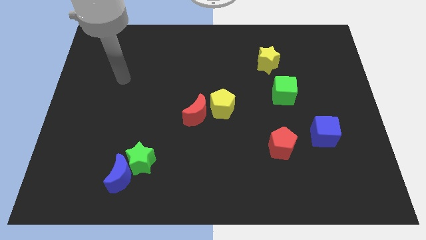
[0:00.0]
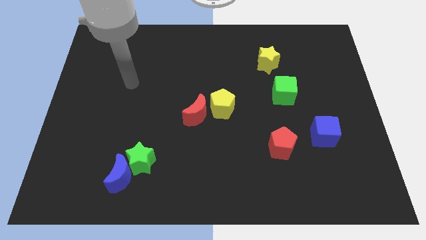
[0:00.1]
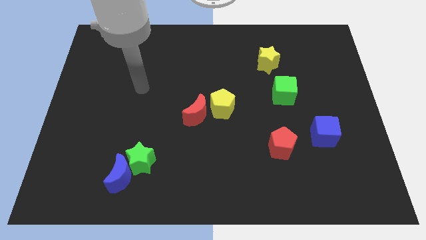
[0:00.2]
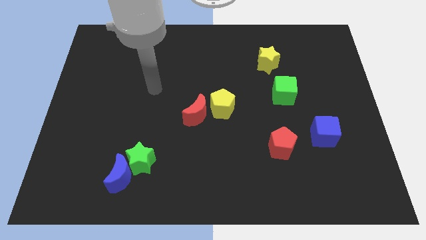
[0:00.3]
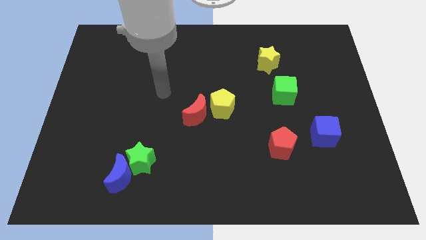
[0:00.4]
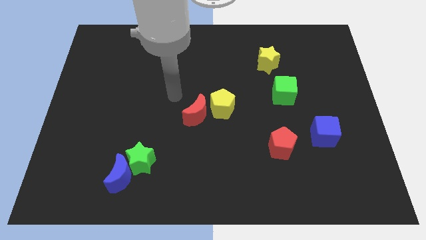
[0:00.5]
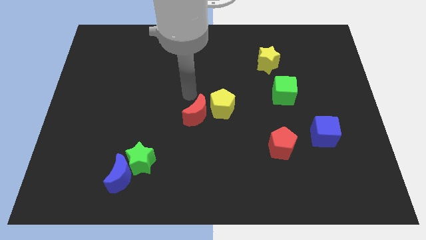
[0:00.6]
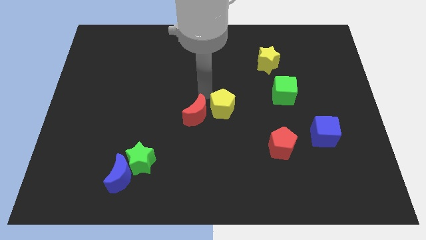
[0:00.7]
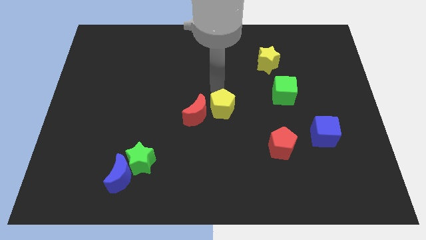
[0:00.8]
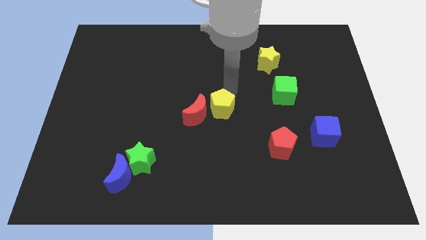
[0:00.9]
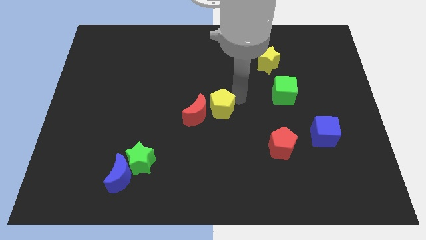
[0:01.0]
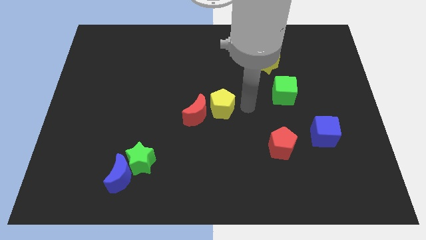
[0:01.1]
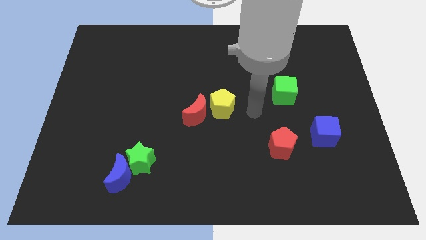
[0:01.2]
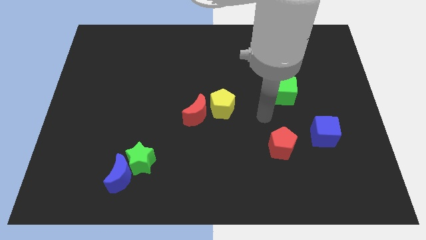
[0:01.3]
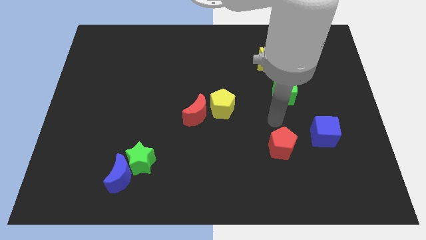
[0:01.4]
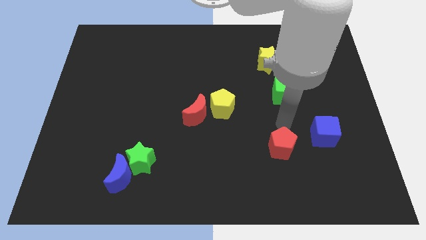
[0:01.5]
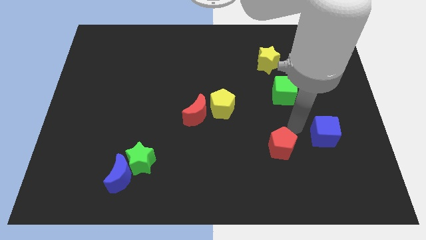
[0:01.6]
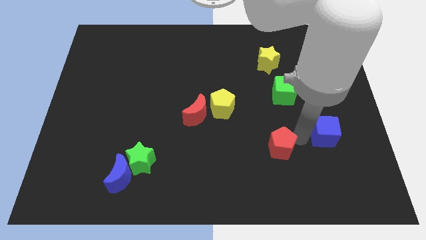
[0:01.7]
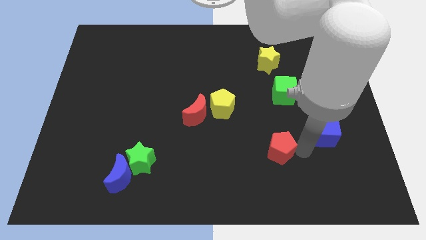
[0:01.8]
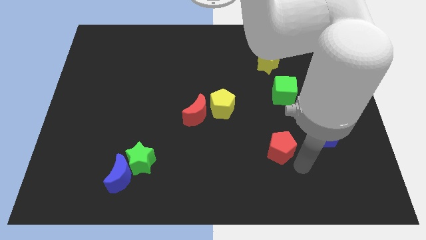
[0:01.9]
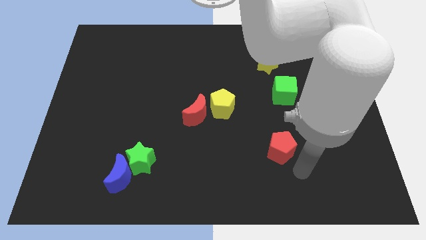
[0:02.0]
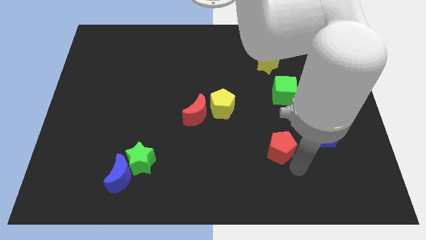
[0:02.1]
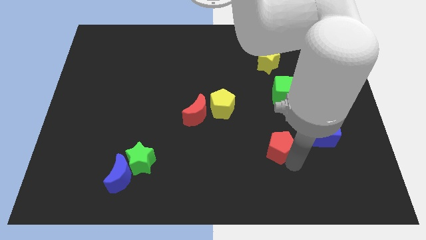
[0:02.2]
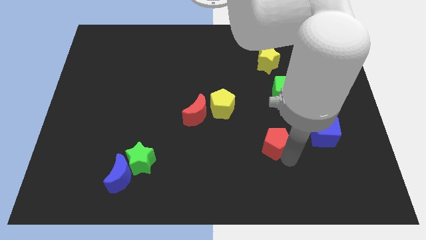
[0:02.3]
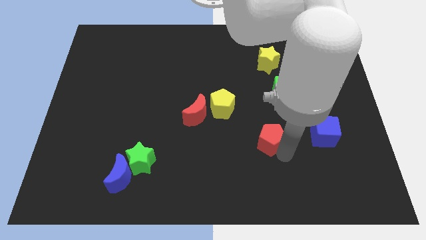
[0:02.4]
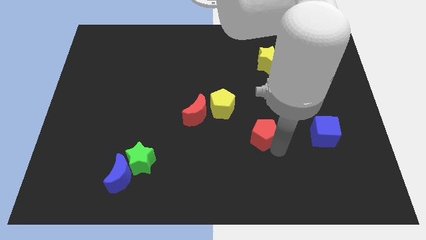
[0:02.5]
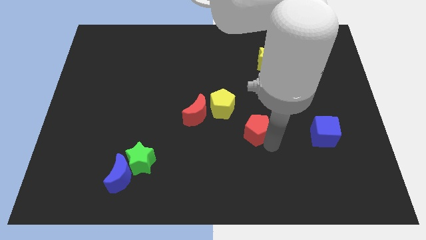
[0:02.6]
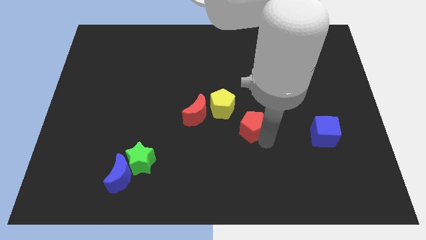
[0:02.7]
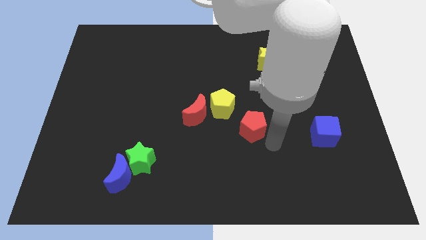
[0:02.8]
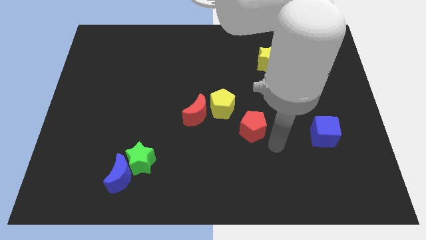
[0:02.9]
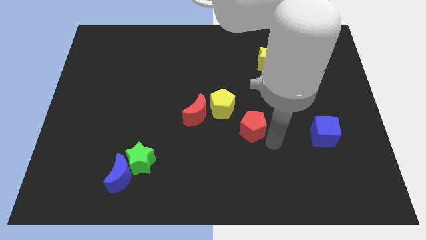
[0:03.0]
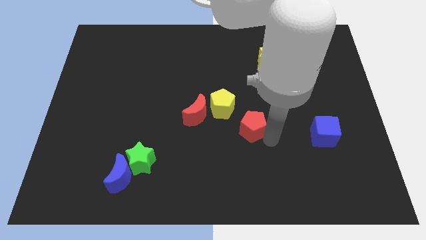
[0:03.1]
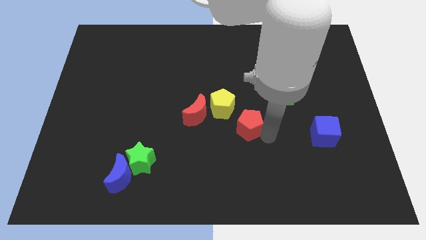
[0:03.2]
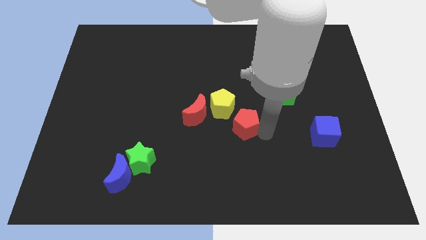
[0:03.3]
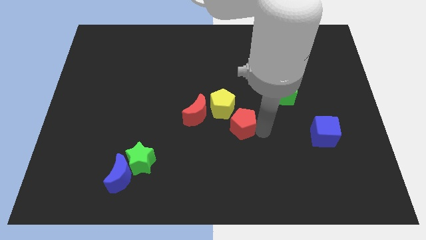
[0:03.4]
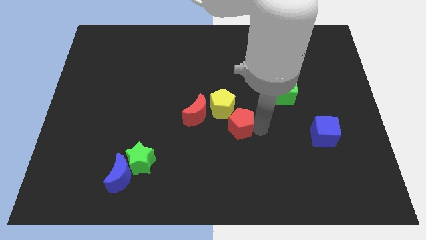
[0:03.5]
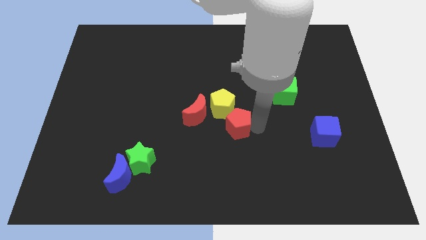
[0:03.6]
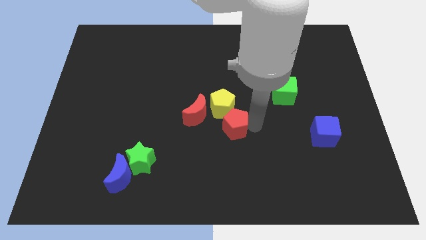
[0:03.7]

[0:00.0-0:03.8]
move the red pentagon close to the yellow pentagon

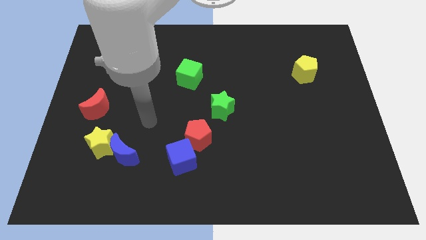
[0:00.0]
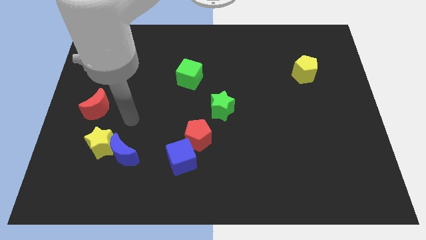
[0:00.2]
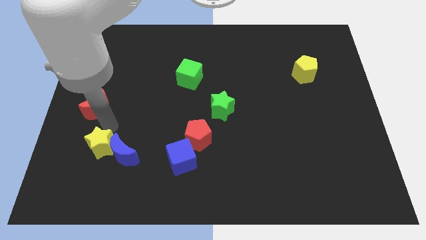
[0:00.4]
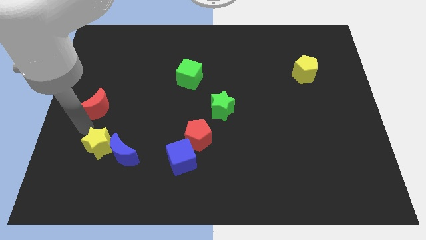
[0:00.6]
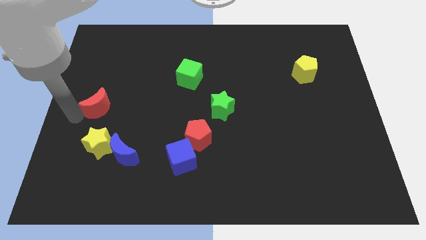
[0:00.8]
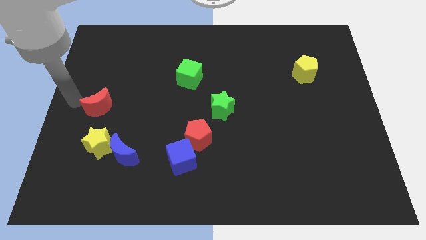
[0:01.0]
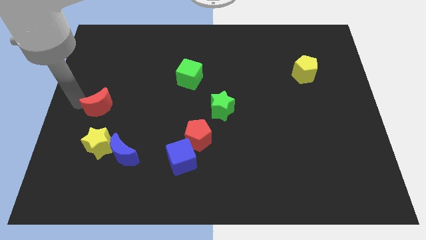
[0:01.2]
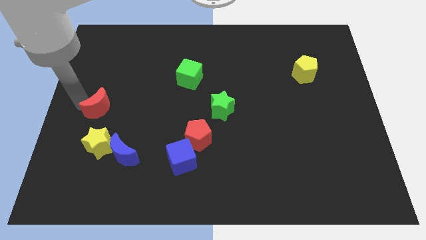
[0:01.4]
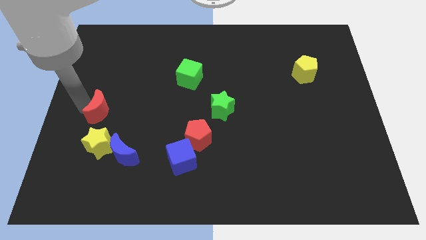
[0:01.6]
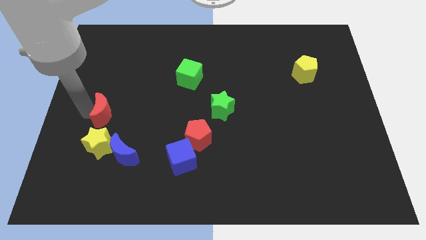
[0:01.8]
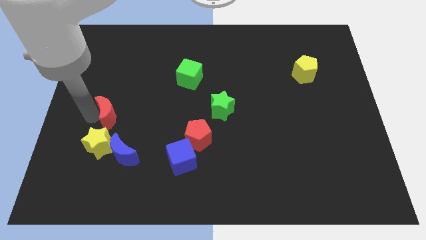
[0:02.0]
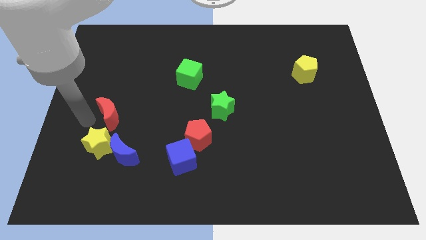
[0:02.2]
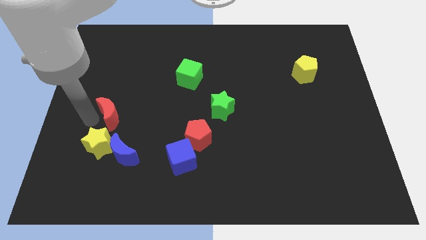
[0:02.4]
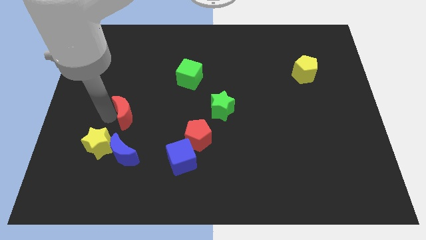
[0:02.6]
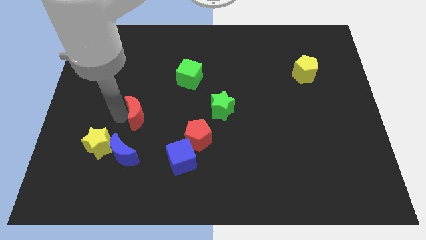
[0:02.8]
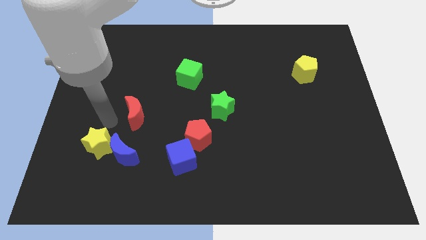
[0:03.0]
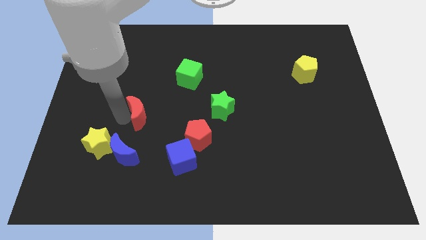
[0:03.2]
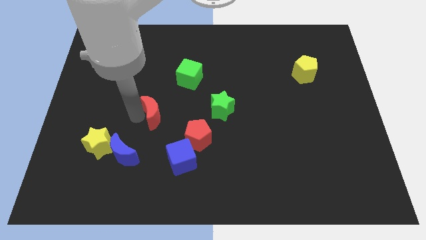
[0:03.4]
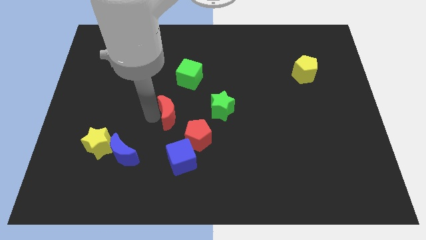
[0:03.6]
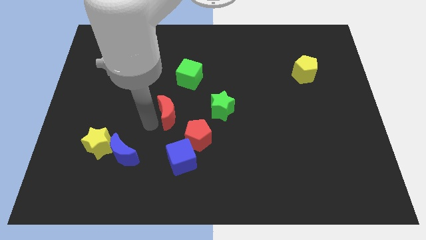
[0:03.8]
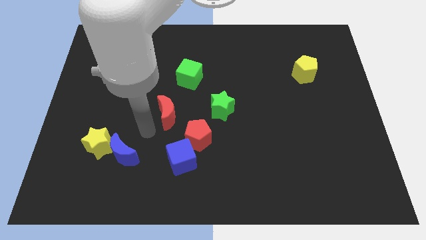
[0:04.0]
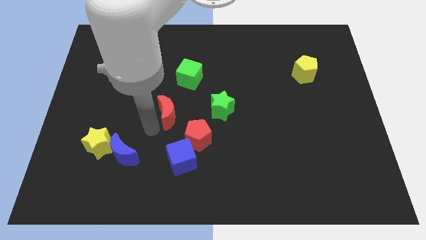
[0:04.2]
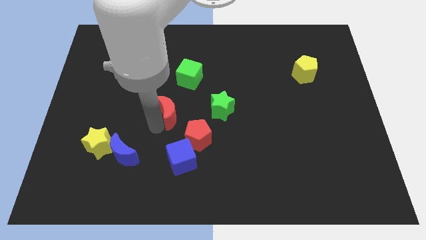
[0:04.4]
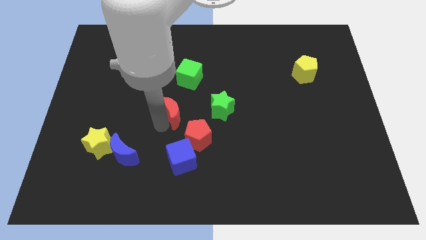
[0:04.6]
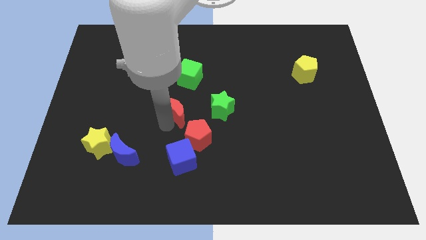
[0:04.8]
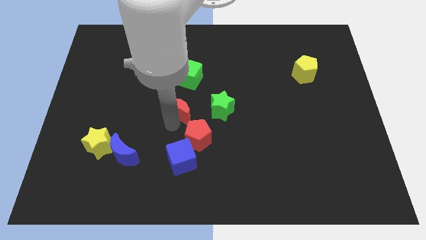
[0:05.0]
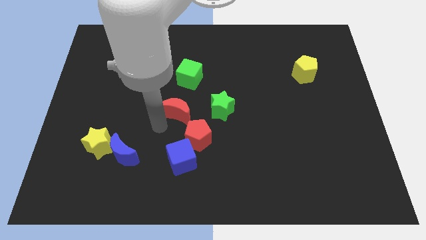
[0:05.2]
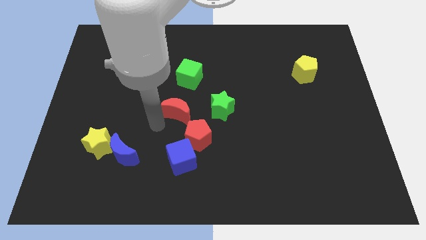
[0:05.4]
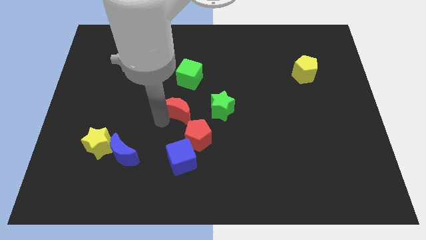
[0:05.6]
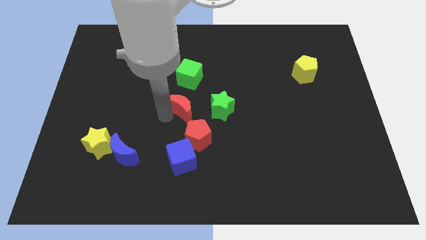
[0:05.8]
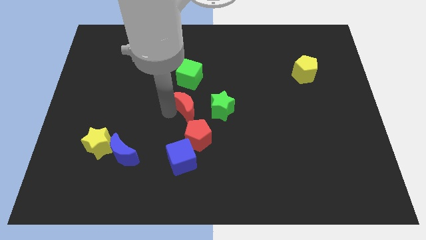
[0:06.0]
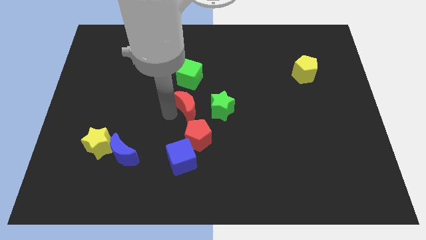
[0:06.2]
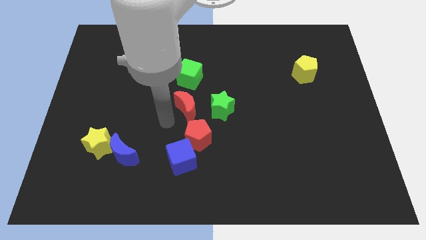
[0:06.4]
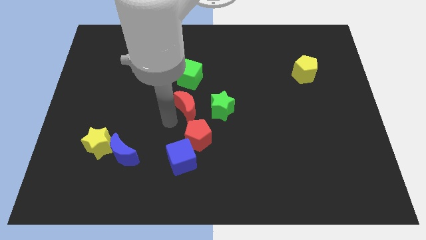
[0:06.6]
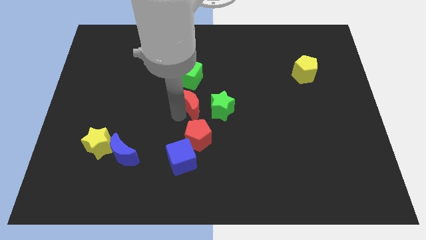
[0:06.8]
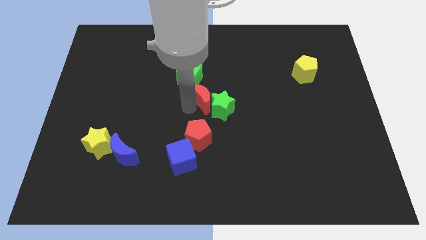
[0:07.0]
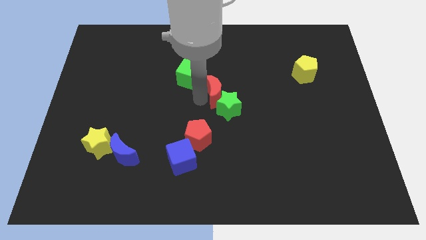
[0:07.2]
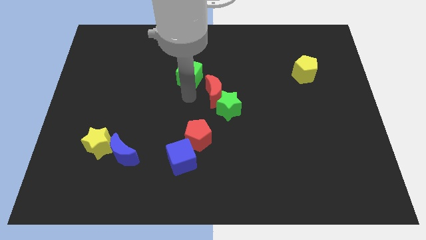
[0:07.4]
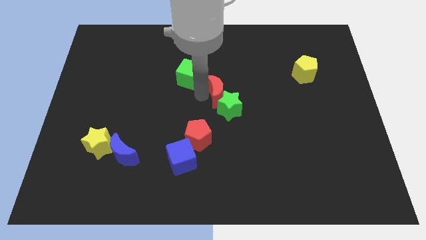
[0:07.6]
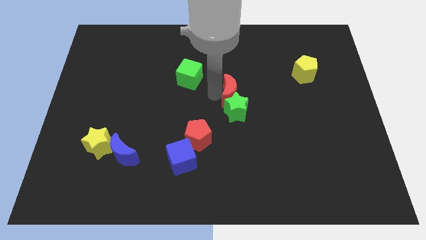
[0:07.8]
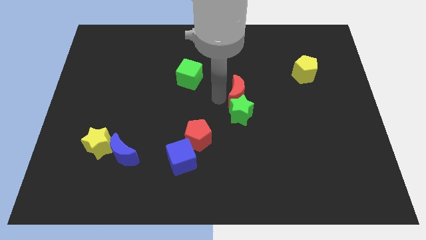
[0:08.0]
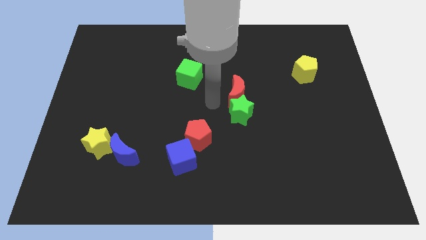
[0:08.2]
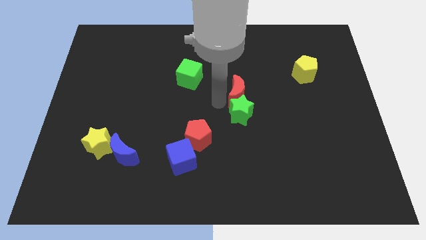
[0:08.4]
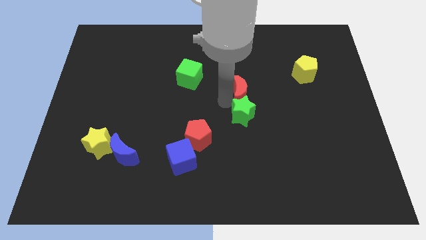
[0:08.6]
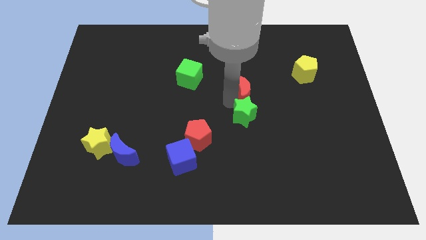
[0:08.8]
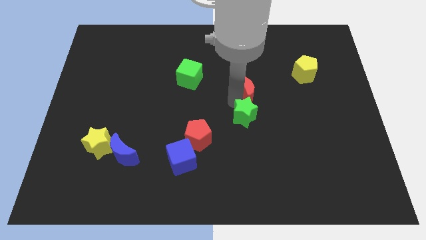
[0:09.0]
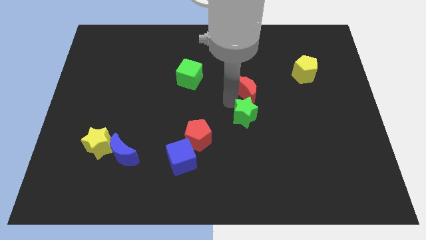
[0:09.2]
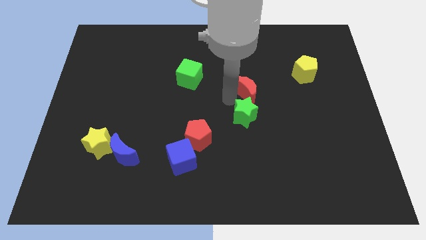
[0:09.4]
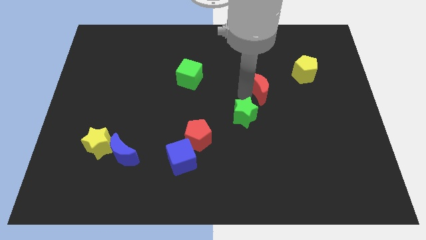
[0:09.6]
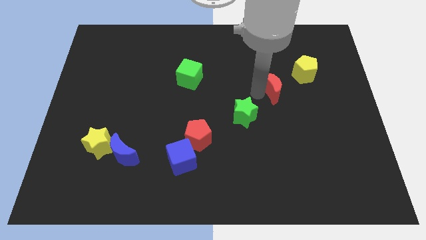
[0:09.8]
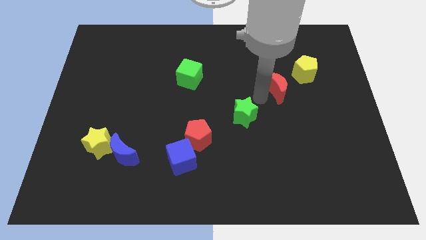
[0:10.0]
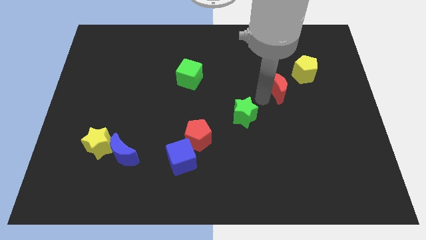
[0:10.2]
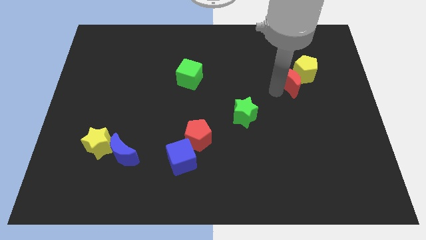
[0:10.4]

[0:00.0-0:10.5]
move the red moon close to the yellow pentagon
